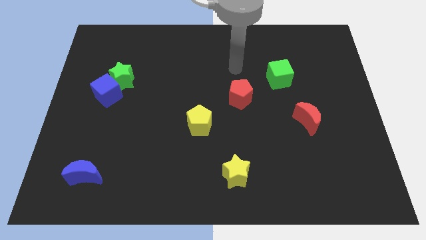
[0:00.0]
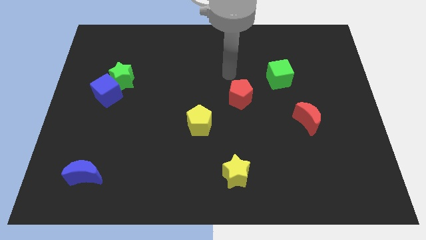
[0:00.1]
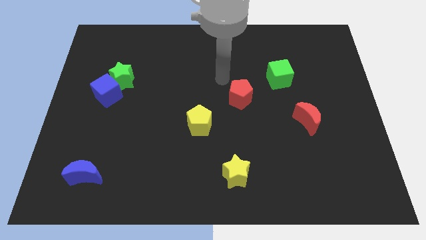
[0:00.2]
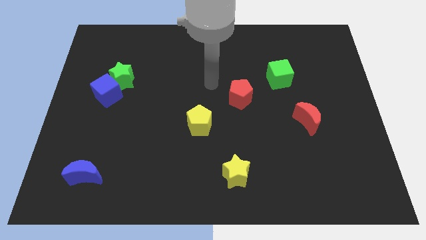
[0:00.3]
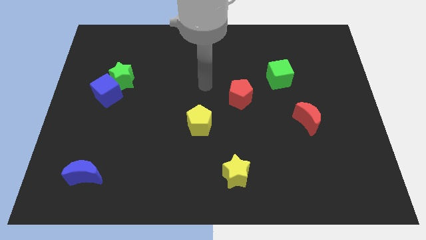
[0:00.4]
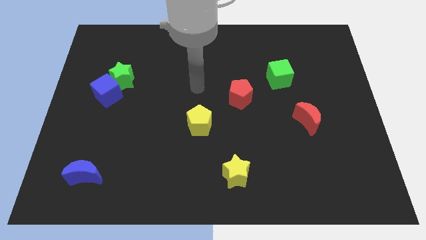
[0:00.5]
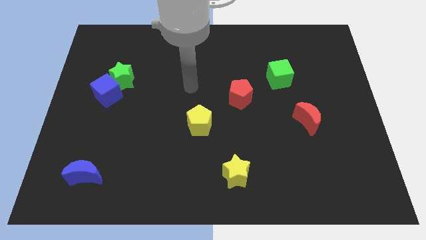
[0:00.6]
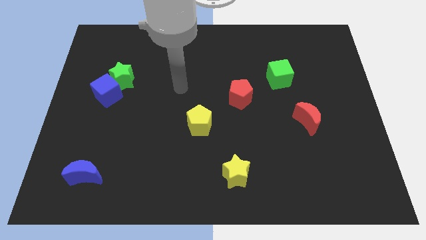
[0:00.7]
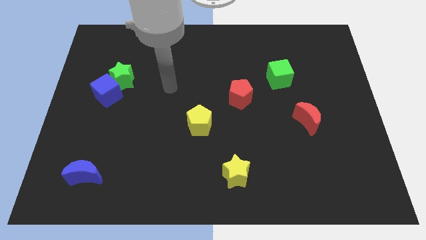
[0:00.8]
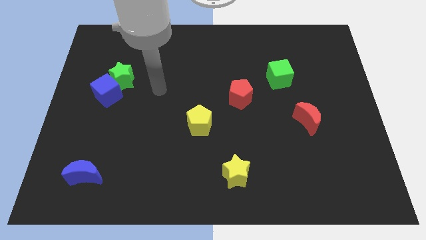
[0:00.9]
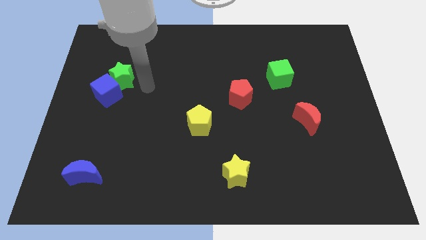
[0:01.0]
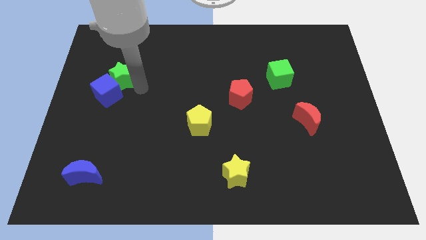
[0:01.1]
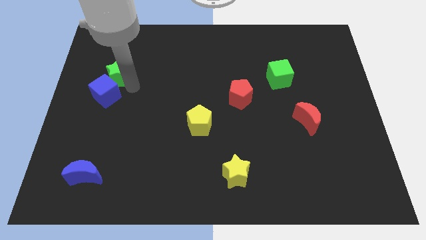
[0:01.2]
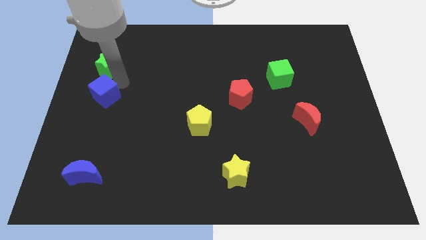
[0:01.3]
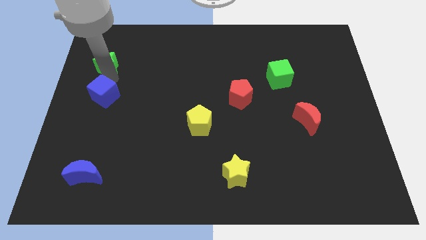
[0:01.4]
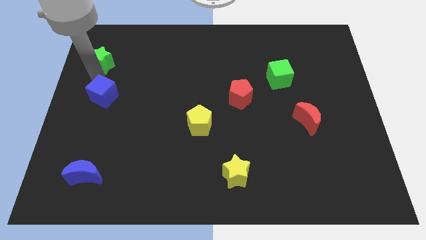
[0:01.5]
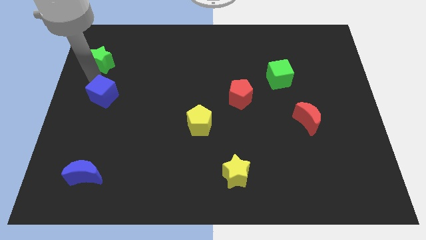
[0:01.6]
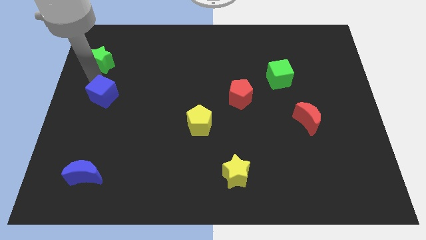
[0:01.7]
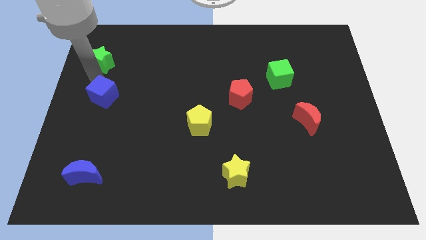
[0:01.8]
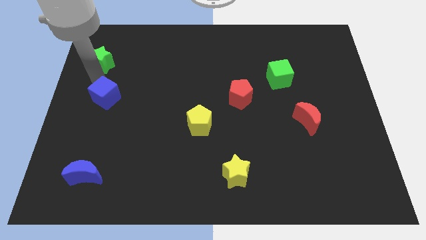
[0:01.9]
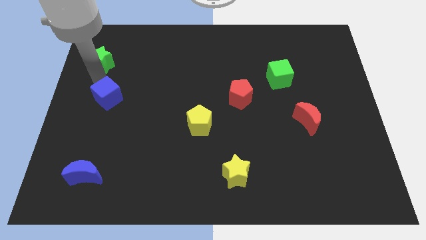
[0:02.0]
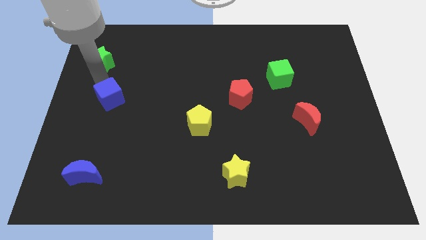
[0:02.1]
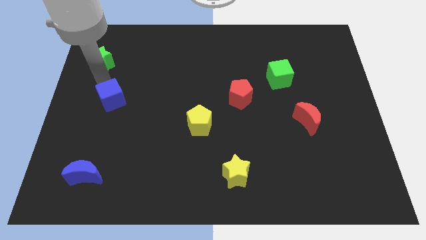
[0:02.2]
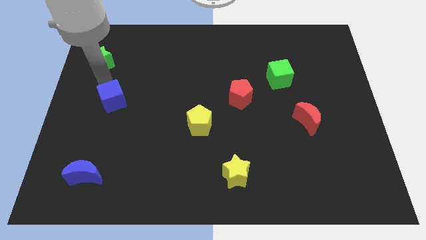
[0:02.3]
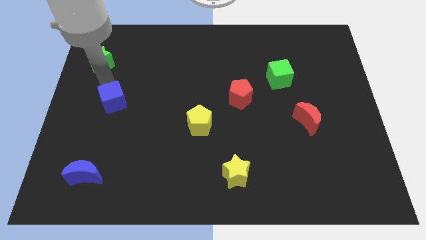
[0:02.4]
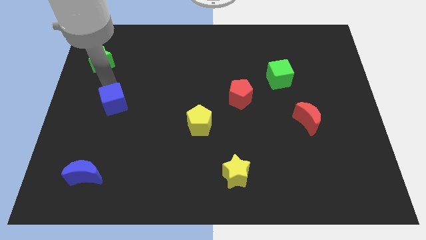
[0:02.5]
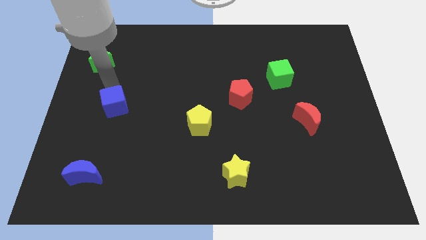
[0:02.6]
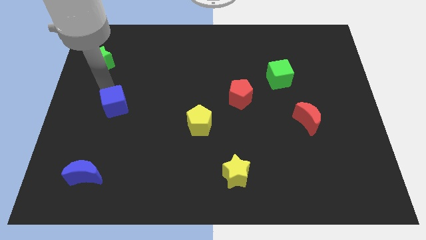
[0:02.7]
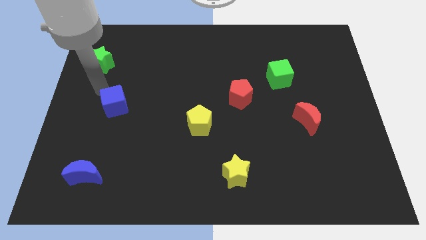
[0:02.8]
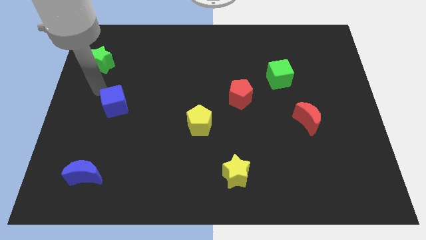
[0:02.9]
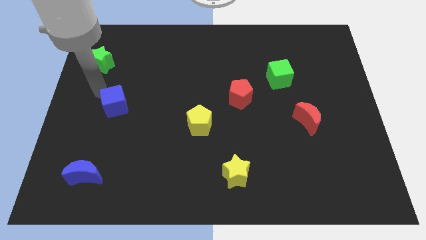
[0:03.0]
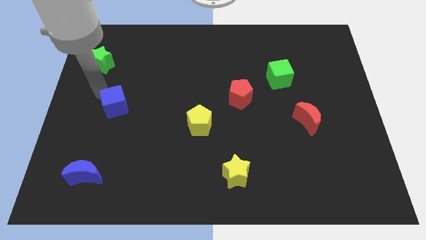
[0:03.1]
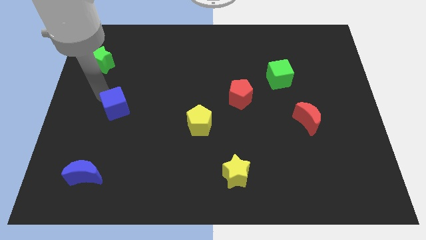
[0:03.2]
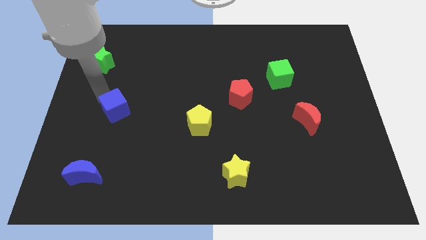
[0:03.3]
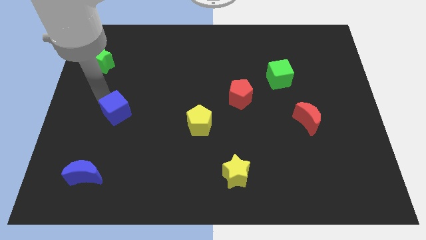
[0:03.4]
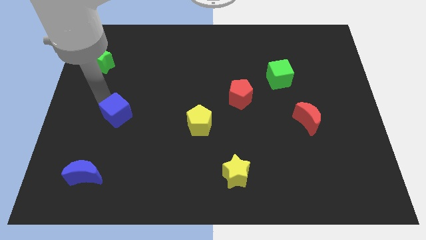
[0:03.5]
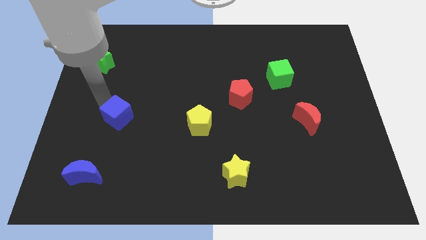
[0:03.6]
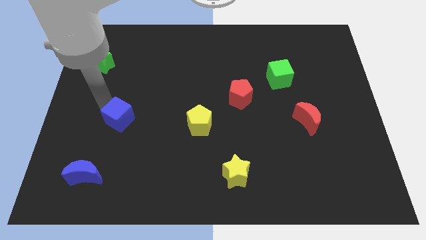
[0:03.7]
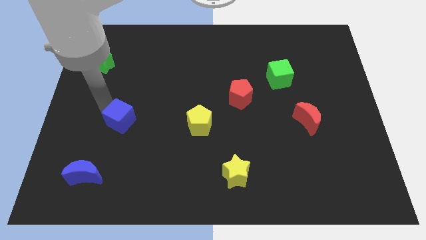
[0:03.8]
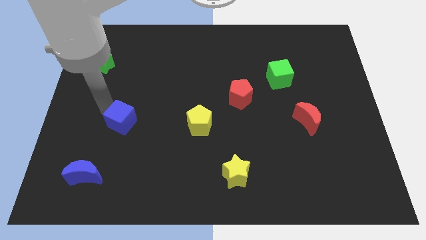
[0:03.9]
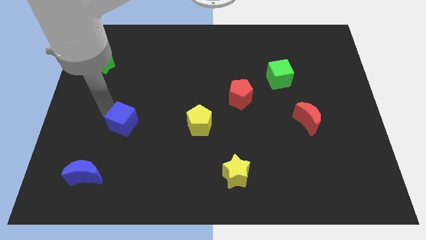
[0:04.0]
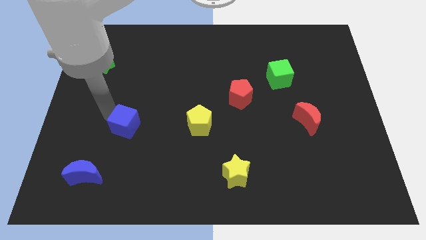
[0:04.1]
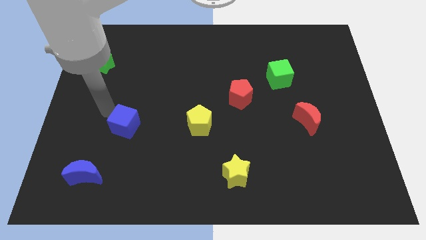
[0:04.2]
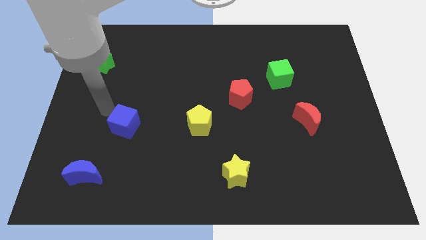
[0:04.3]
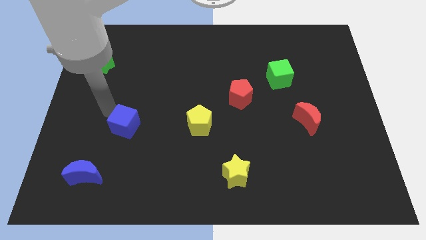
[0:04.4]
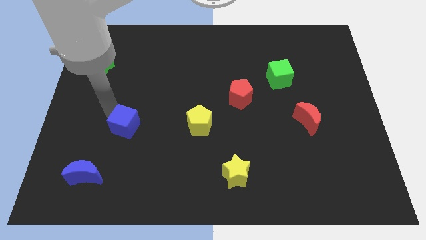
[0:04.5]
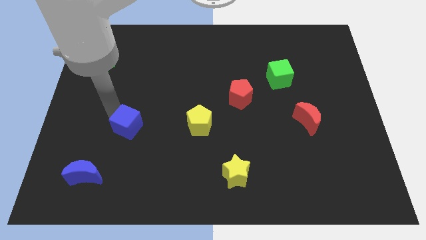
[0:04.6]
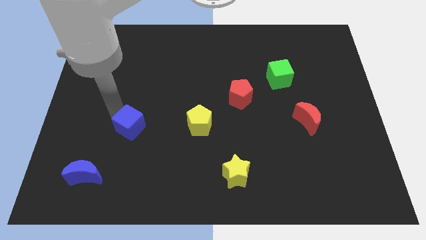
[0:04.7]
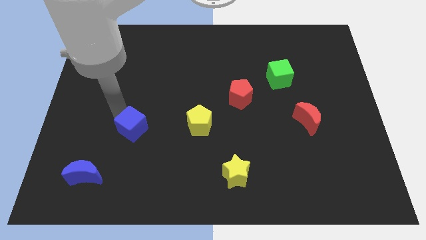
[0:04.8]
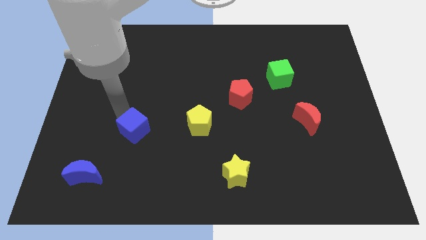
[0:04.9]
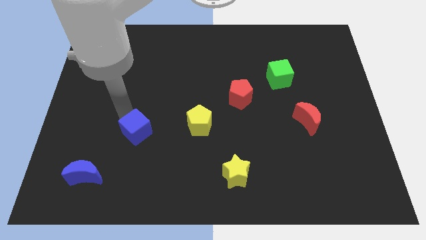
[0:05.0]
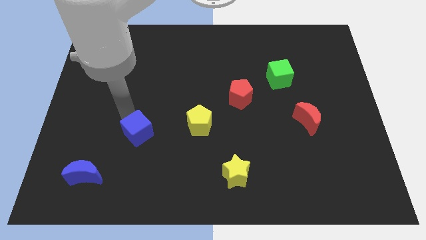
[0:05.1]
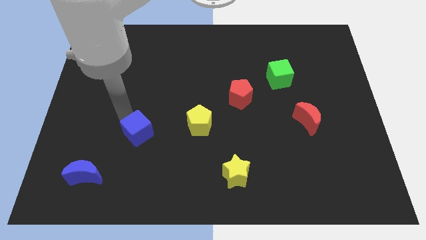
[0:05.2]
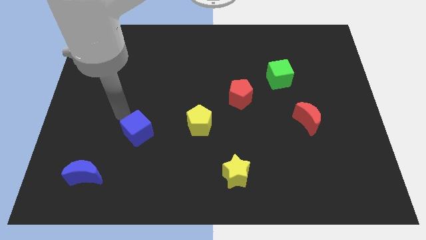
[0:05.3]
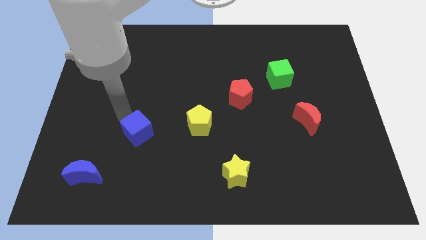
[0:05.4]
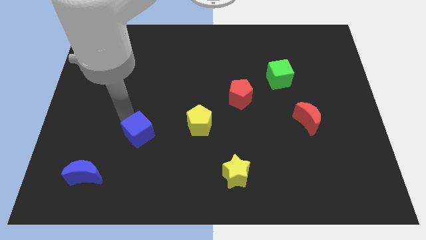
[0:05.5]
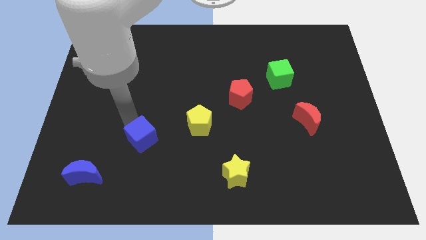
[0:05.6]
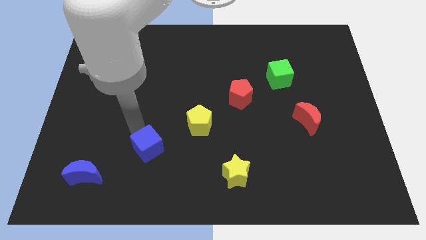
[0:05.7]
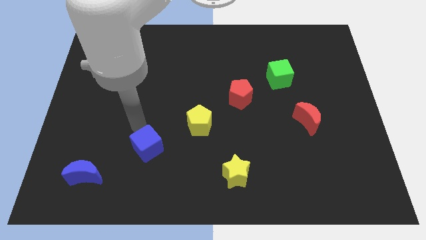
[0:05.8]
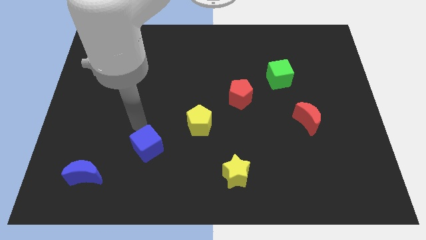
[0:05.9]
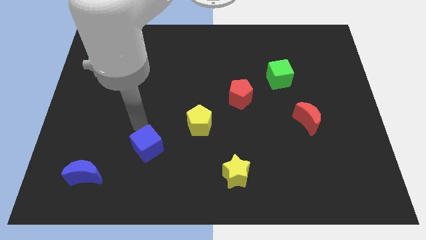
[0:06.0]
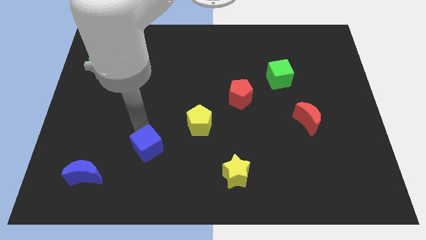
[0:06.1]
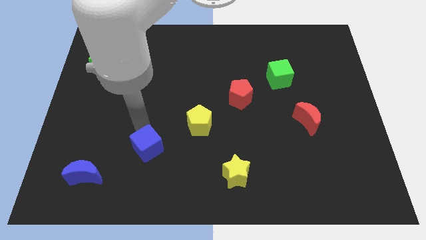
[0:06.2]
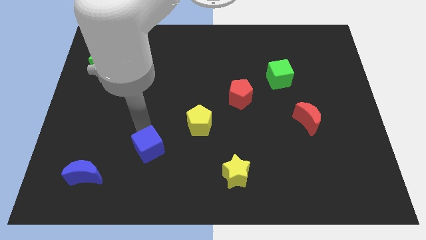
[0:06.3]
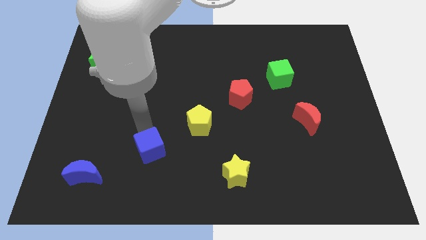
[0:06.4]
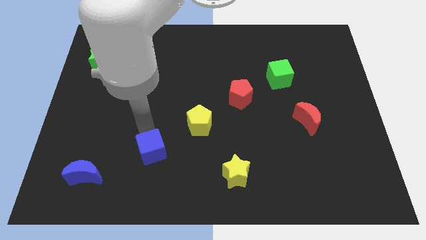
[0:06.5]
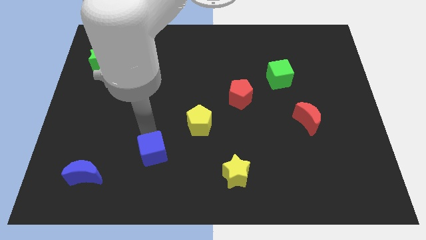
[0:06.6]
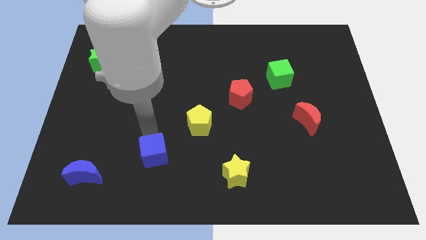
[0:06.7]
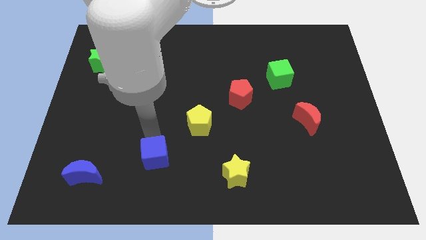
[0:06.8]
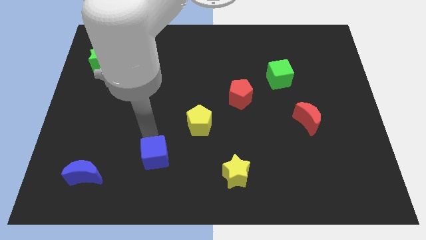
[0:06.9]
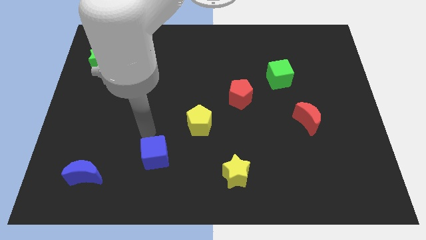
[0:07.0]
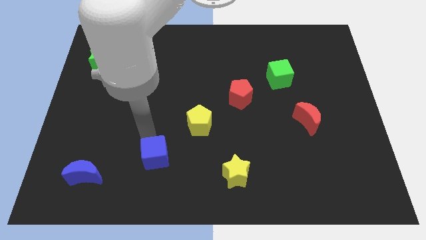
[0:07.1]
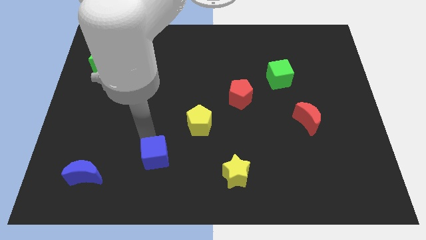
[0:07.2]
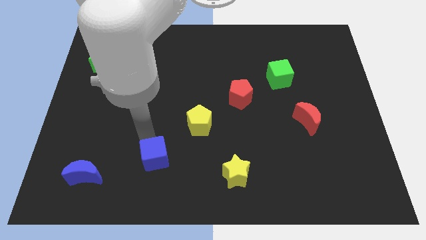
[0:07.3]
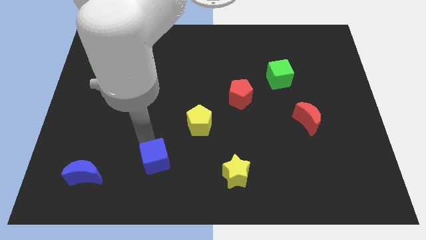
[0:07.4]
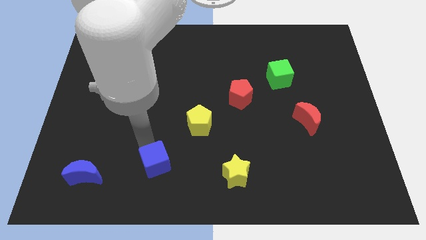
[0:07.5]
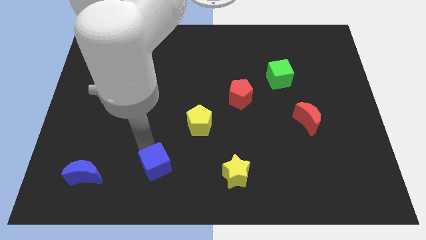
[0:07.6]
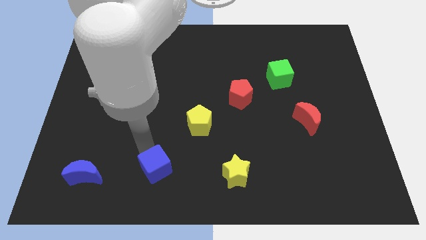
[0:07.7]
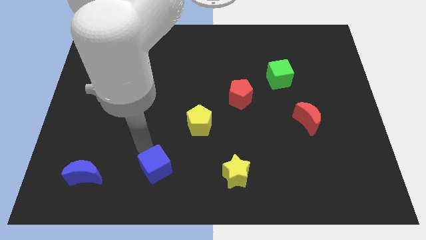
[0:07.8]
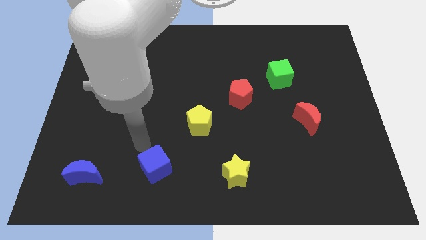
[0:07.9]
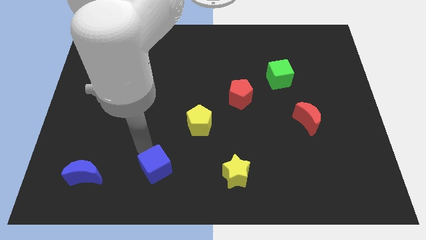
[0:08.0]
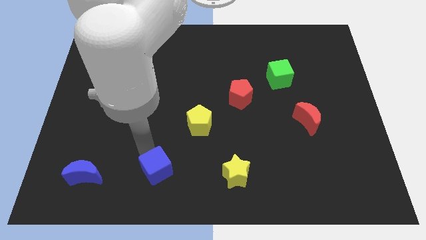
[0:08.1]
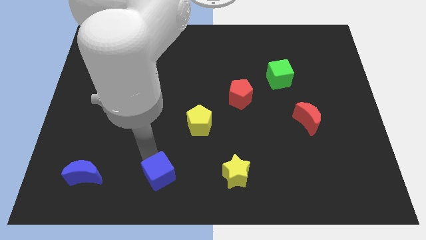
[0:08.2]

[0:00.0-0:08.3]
move the blue cube to the bottom
